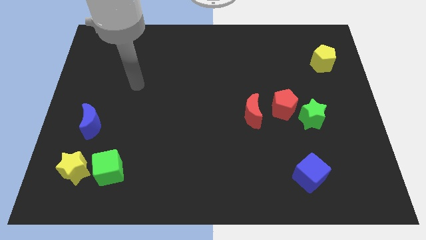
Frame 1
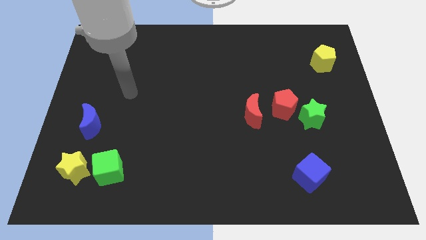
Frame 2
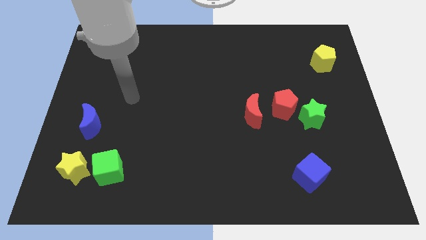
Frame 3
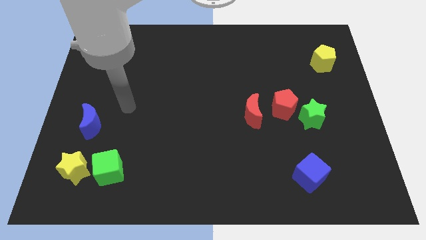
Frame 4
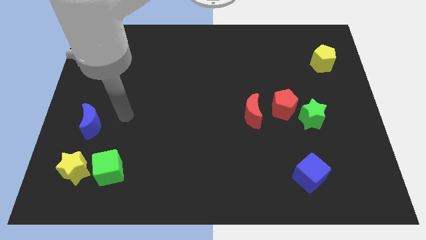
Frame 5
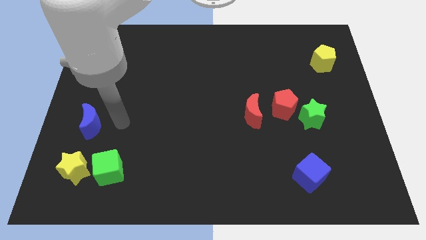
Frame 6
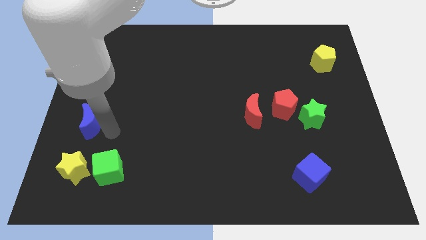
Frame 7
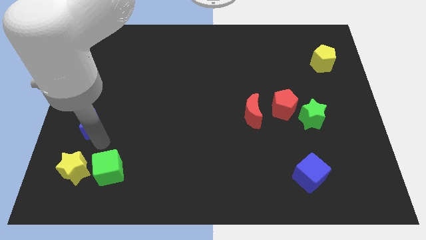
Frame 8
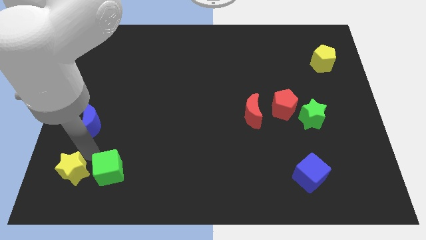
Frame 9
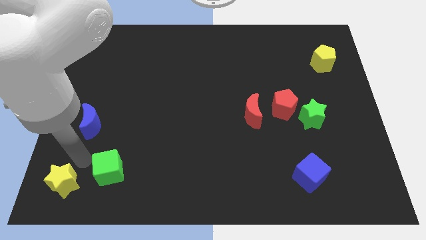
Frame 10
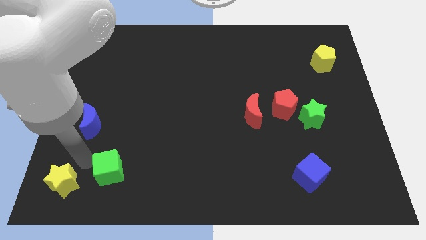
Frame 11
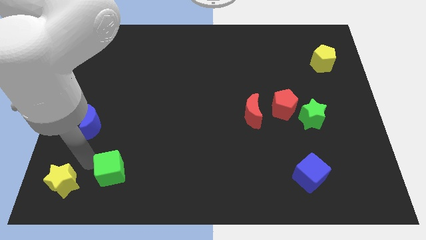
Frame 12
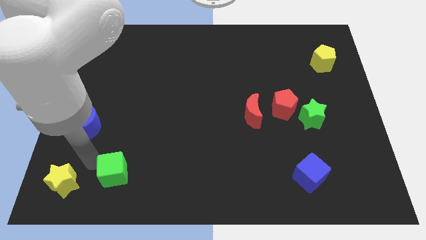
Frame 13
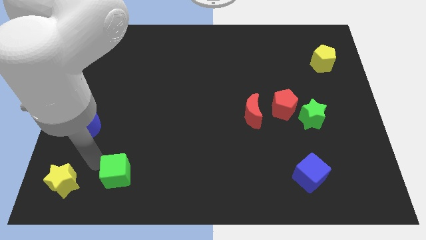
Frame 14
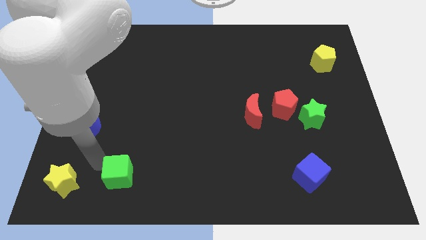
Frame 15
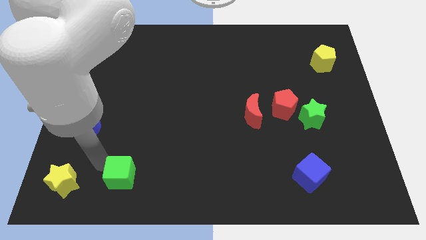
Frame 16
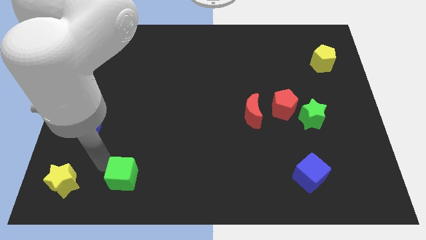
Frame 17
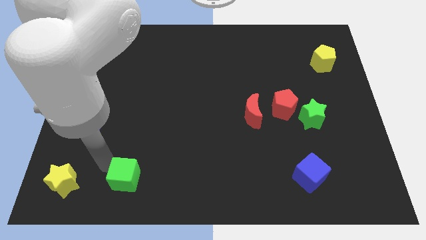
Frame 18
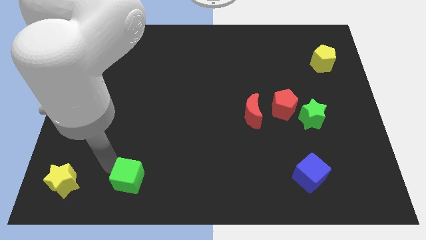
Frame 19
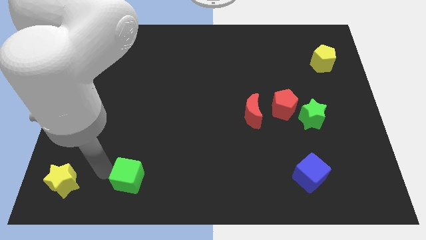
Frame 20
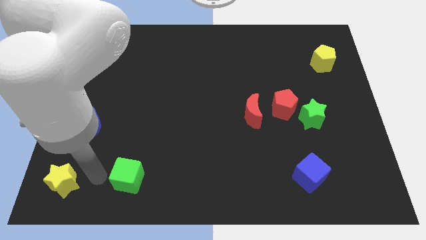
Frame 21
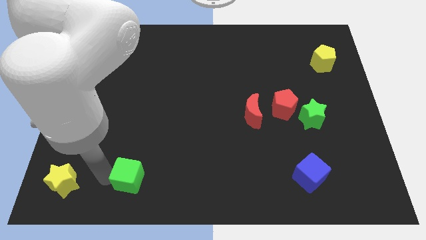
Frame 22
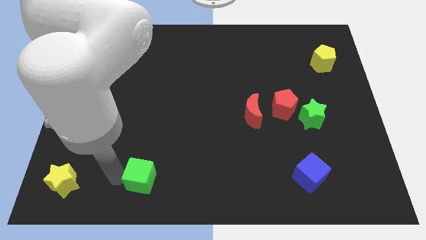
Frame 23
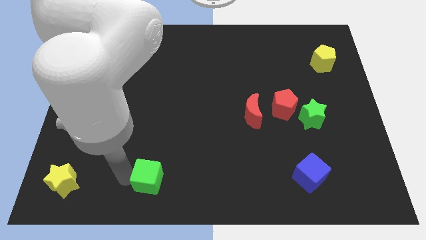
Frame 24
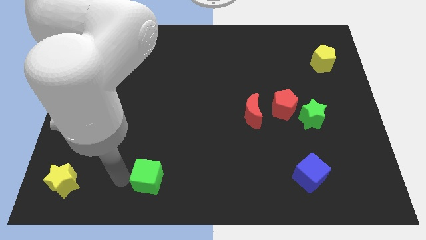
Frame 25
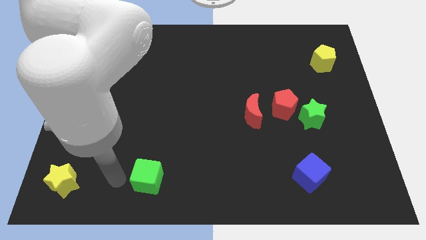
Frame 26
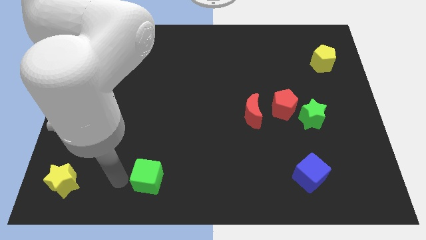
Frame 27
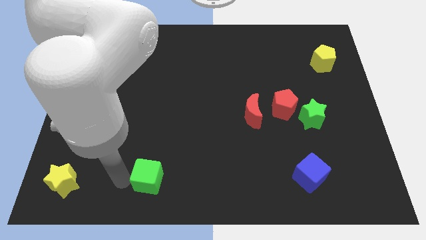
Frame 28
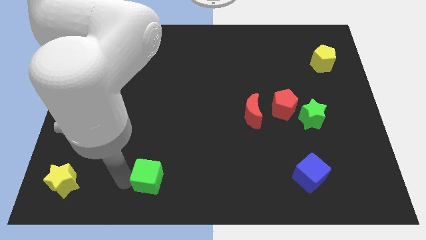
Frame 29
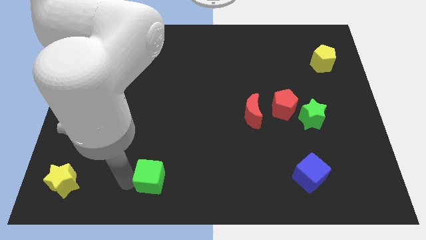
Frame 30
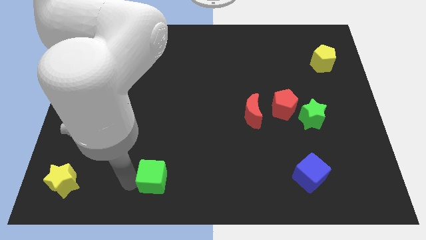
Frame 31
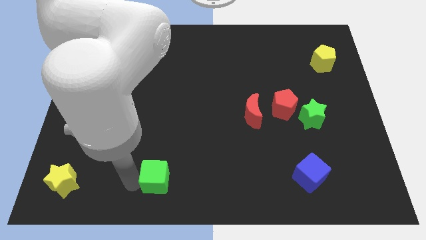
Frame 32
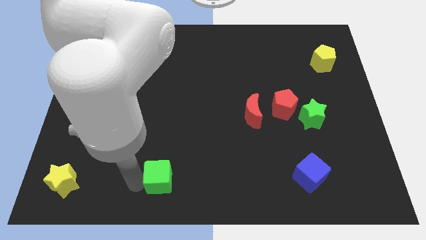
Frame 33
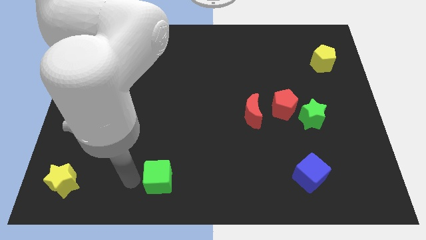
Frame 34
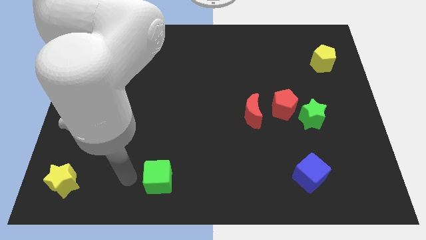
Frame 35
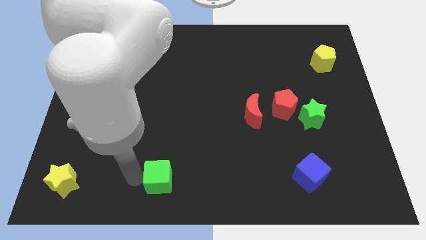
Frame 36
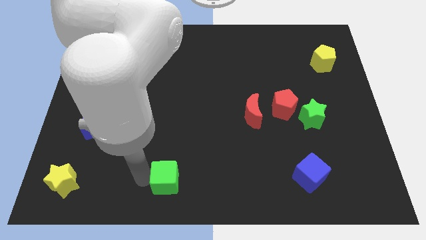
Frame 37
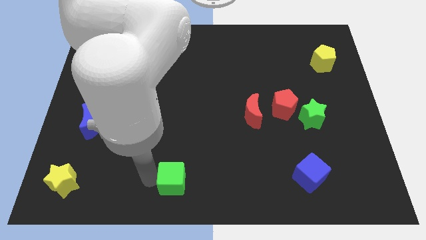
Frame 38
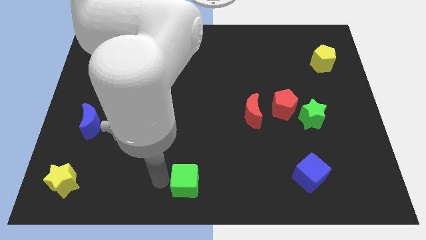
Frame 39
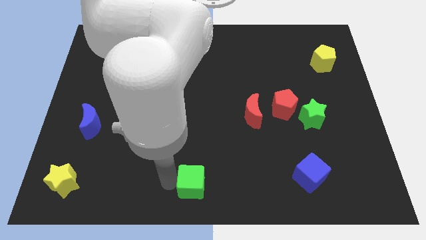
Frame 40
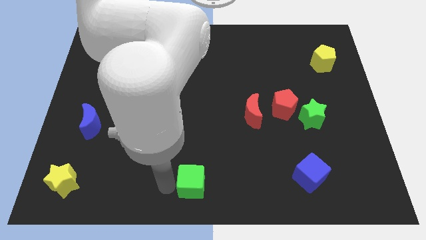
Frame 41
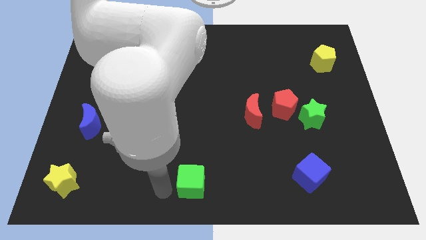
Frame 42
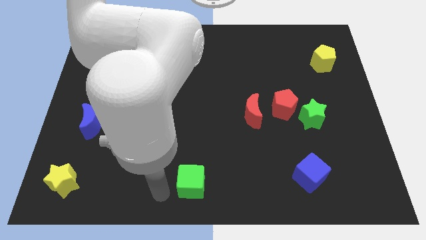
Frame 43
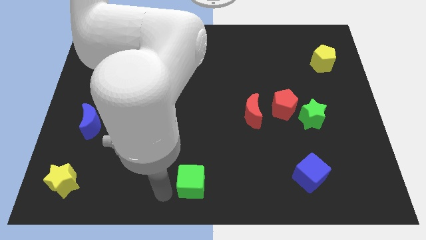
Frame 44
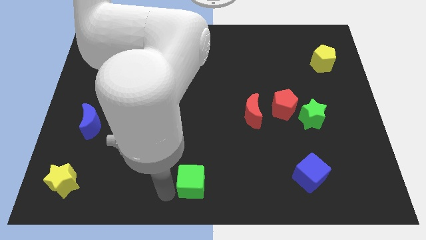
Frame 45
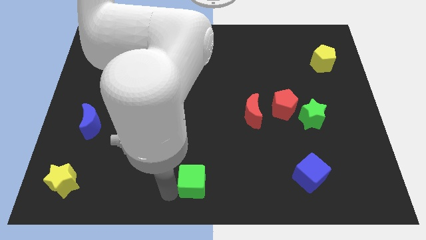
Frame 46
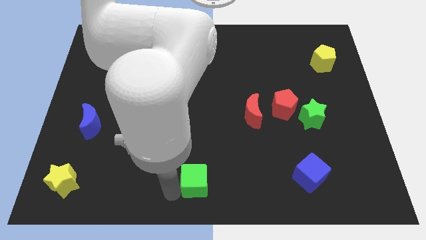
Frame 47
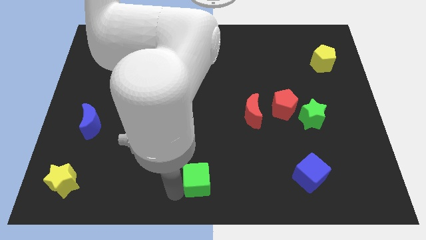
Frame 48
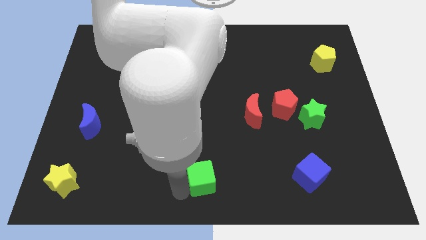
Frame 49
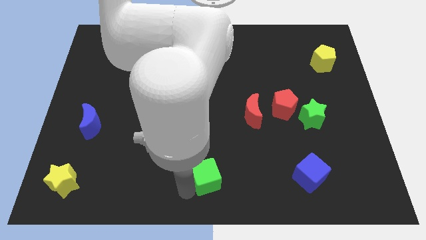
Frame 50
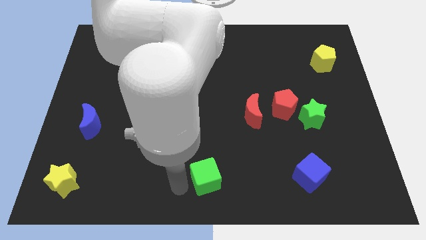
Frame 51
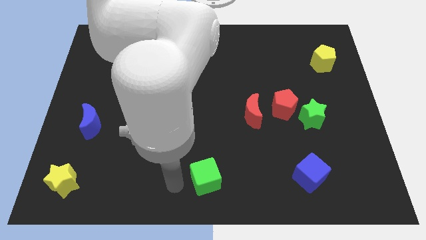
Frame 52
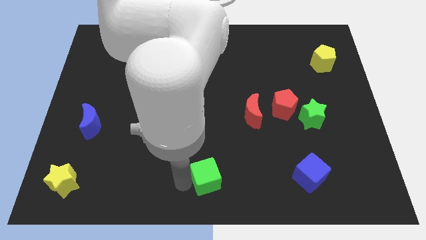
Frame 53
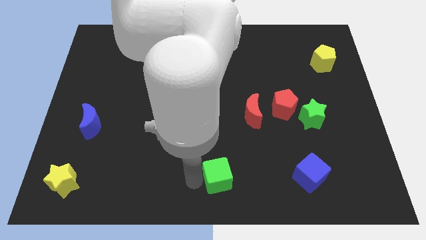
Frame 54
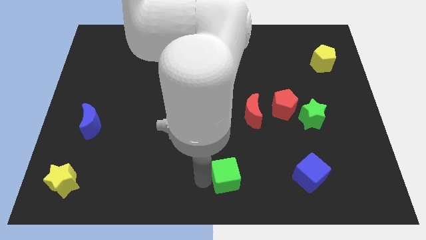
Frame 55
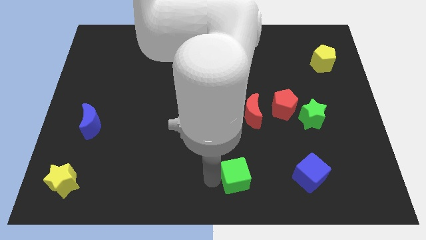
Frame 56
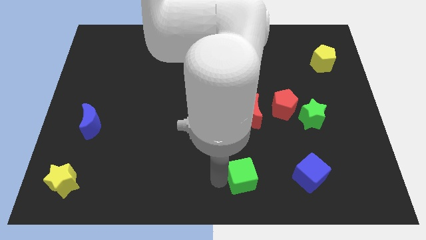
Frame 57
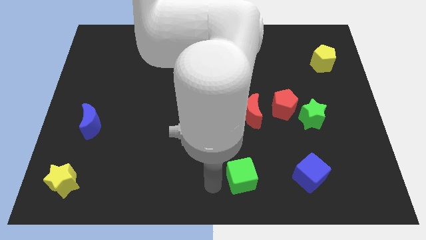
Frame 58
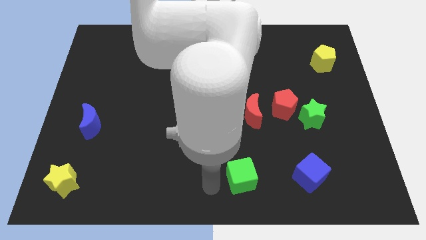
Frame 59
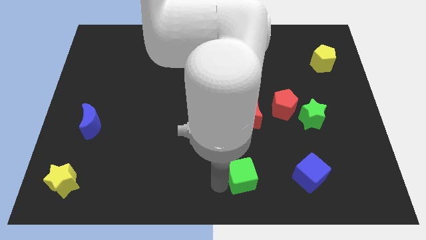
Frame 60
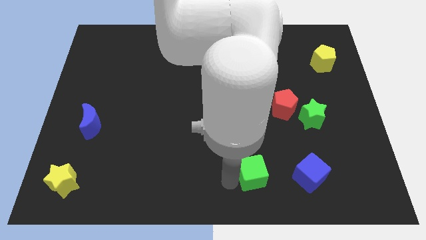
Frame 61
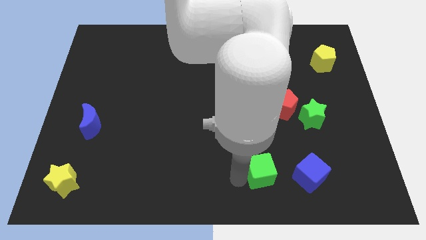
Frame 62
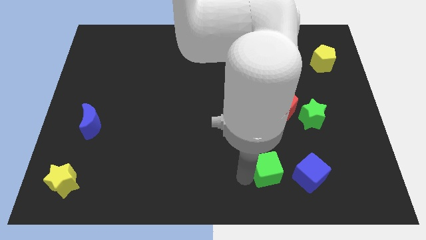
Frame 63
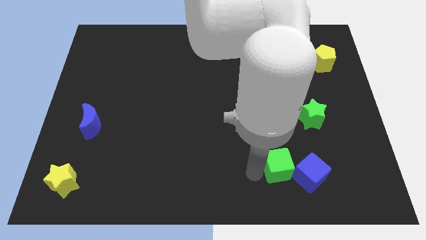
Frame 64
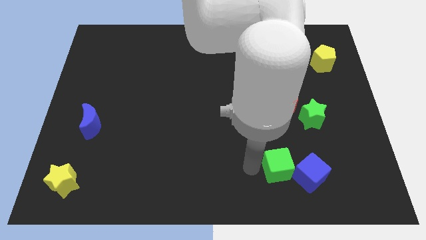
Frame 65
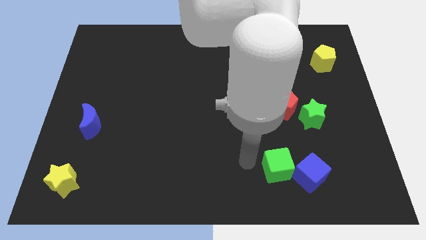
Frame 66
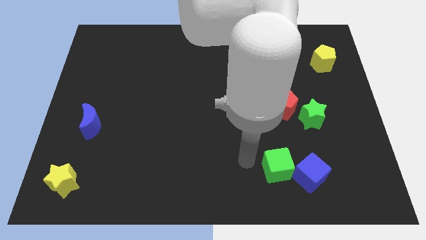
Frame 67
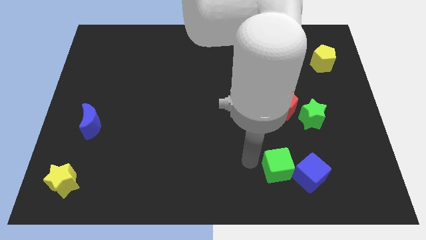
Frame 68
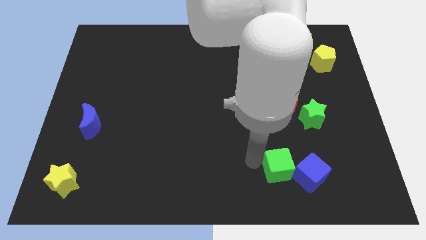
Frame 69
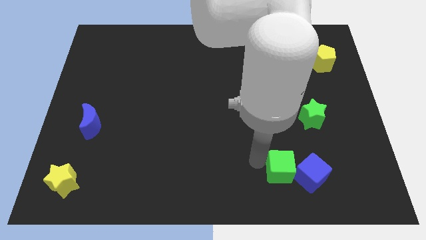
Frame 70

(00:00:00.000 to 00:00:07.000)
put the green cube to the blue cube
